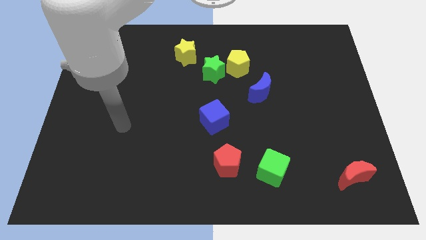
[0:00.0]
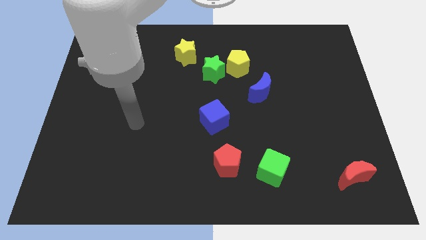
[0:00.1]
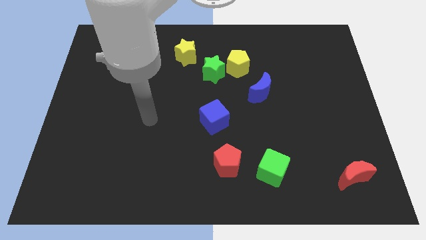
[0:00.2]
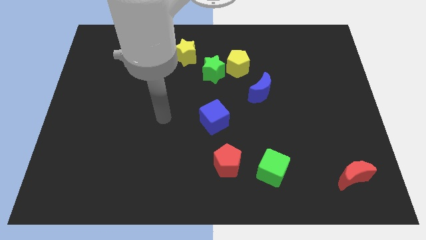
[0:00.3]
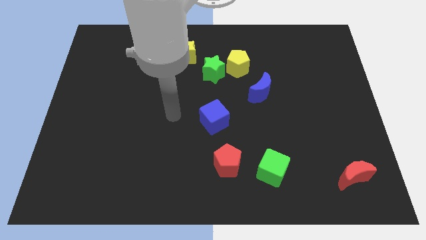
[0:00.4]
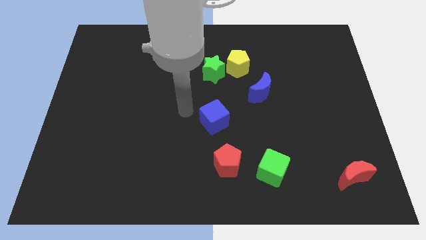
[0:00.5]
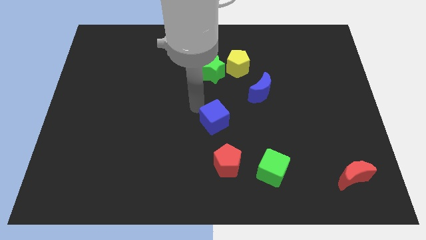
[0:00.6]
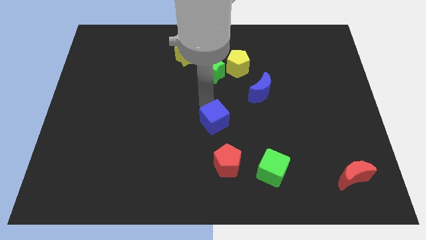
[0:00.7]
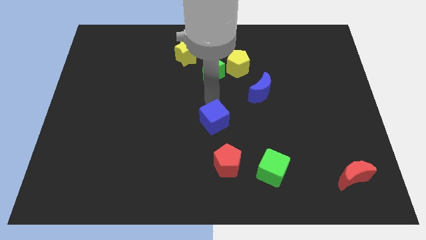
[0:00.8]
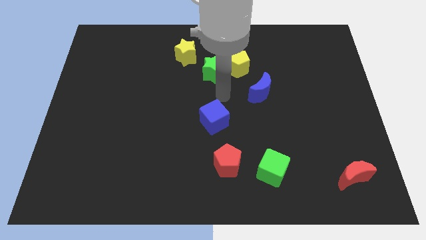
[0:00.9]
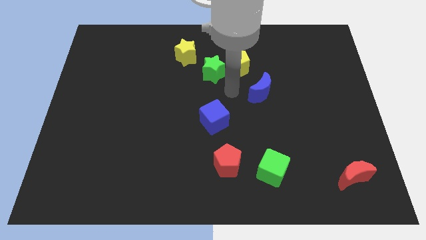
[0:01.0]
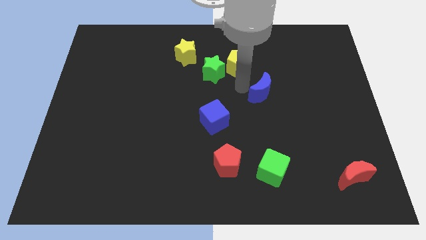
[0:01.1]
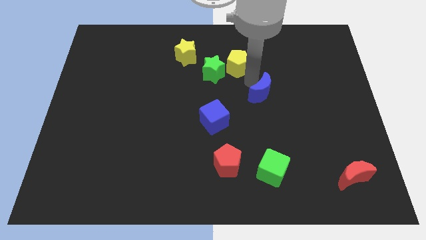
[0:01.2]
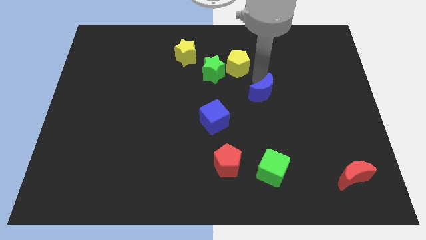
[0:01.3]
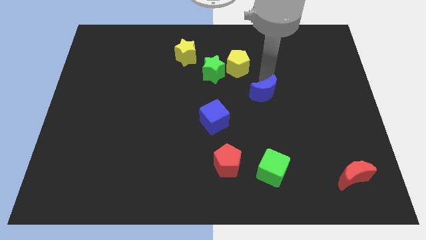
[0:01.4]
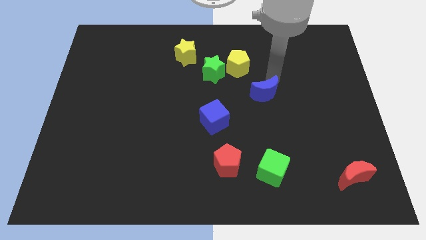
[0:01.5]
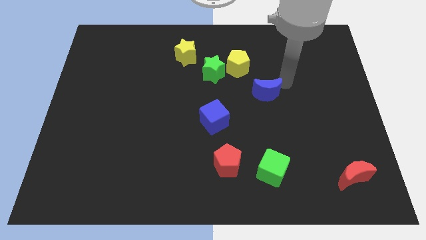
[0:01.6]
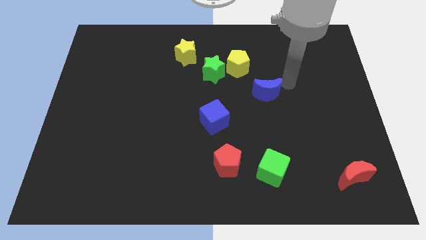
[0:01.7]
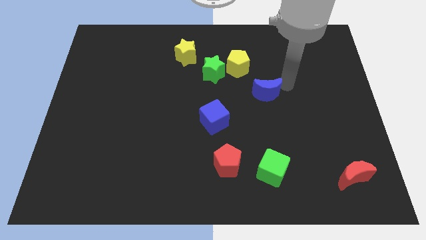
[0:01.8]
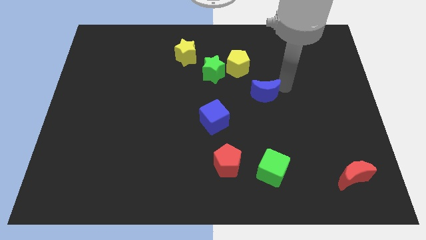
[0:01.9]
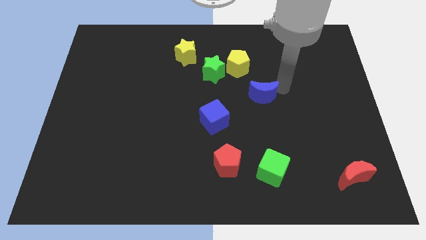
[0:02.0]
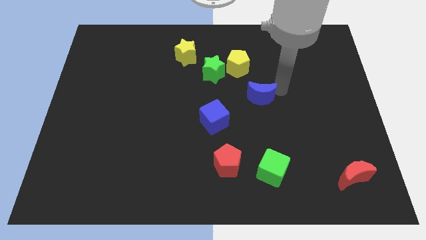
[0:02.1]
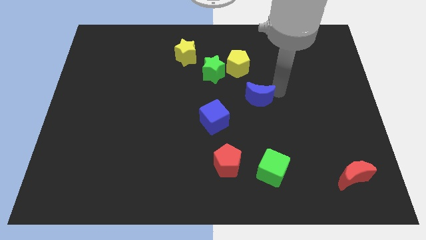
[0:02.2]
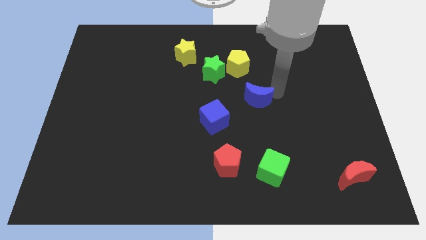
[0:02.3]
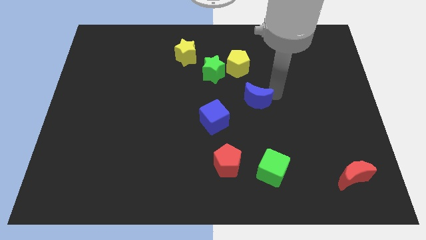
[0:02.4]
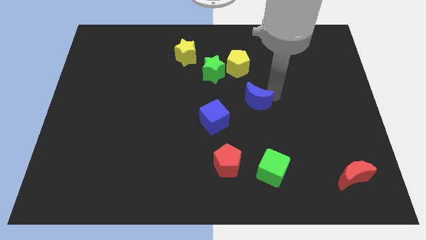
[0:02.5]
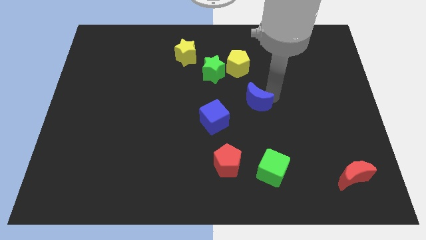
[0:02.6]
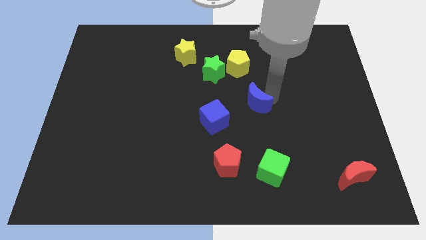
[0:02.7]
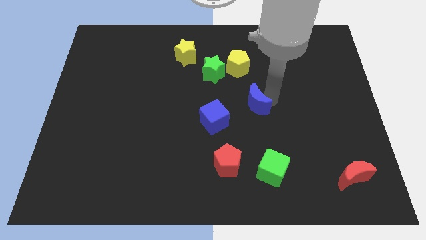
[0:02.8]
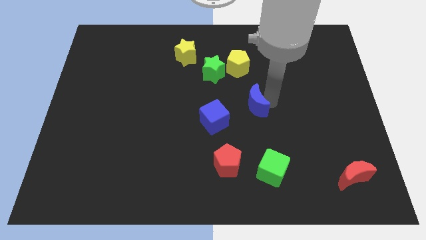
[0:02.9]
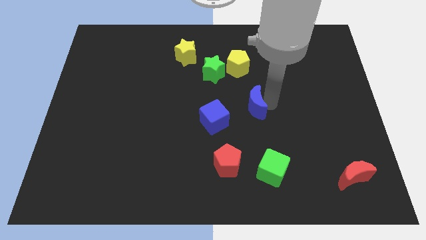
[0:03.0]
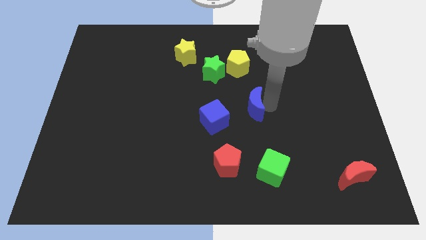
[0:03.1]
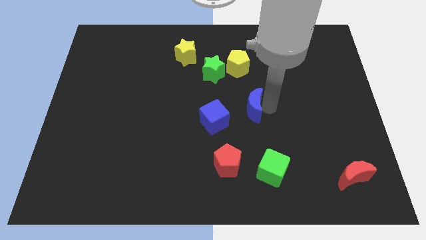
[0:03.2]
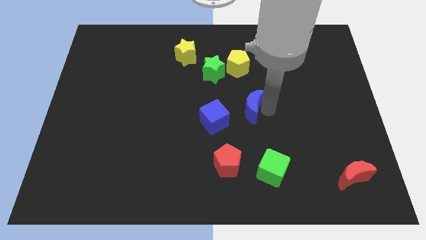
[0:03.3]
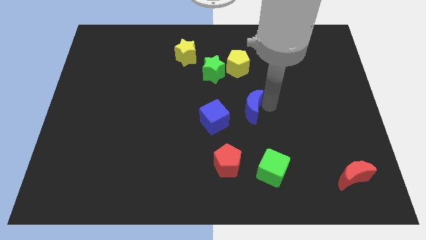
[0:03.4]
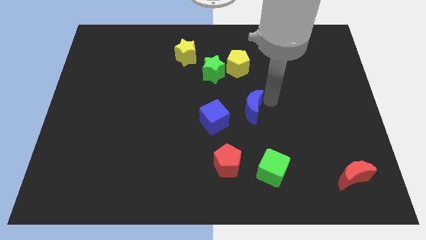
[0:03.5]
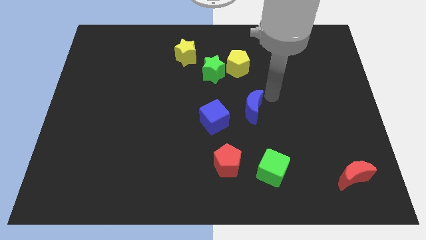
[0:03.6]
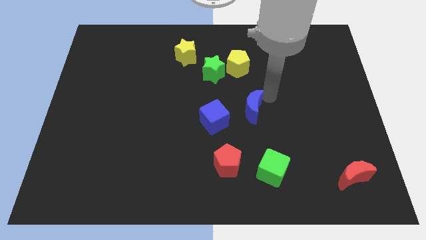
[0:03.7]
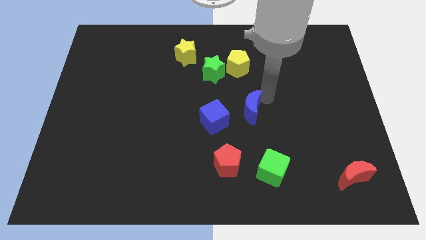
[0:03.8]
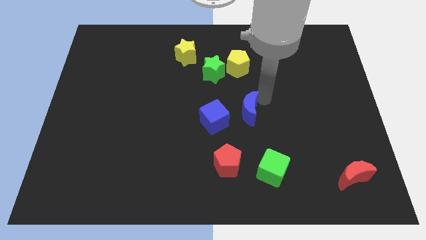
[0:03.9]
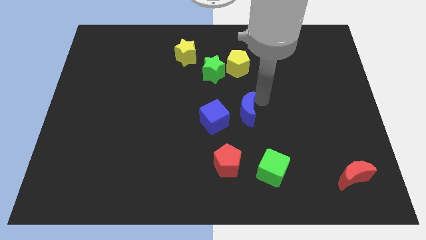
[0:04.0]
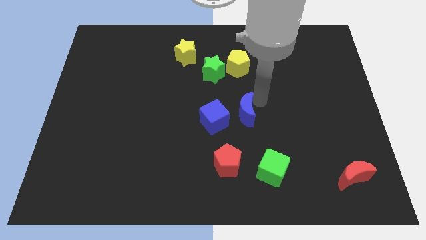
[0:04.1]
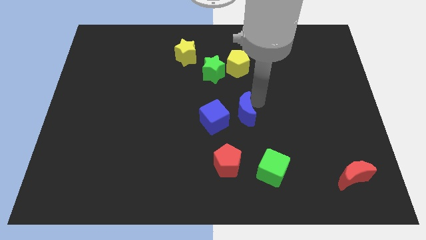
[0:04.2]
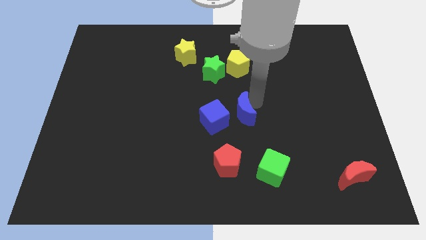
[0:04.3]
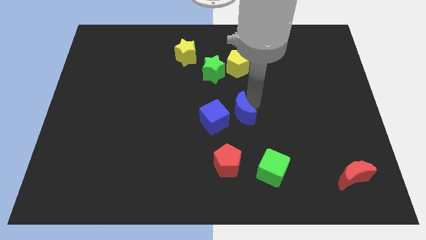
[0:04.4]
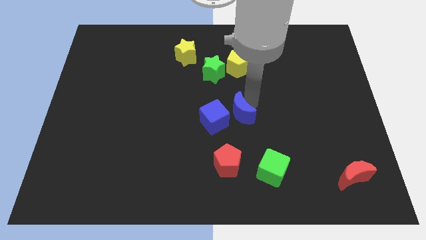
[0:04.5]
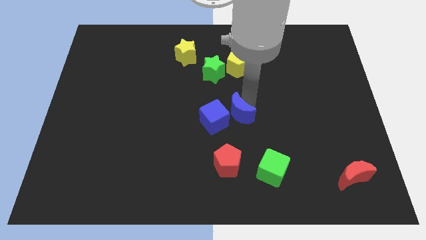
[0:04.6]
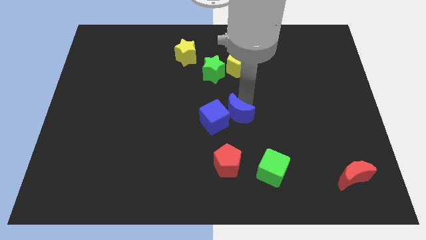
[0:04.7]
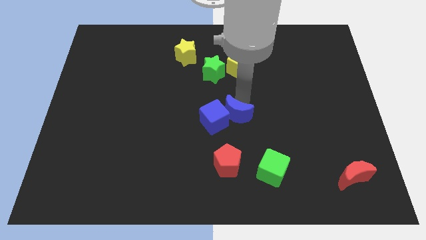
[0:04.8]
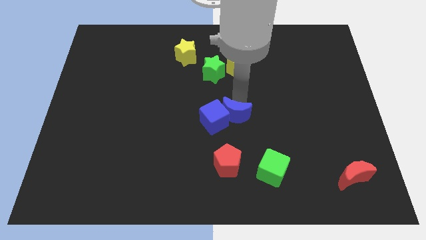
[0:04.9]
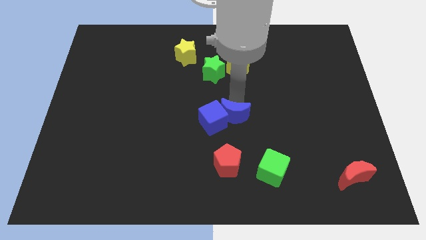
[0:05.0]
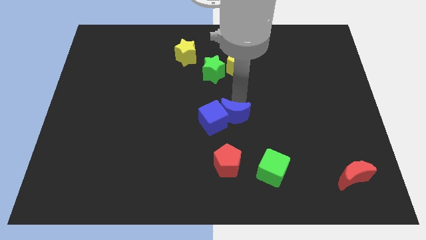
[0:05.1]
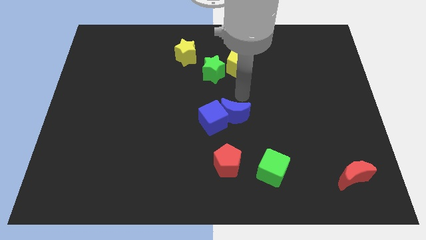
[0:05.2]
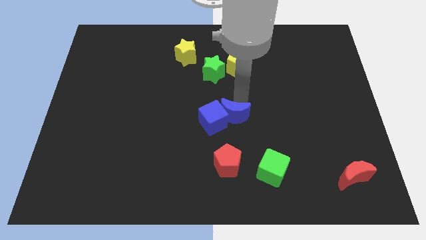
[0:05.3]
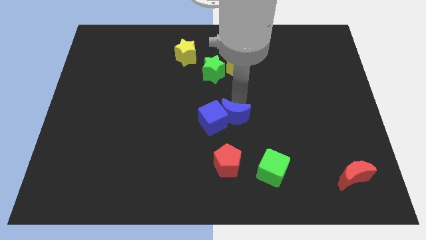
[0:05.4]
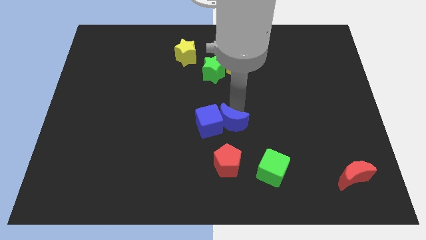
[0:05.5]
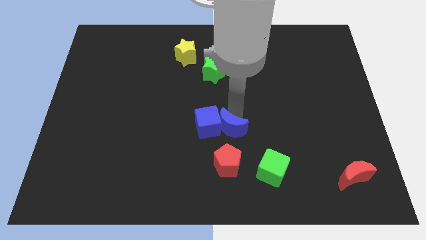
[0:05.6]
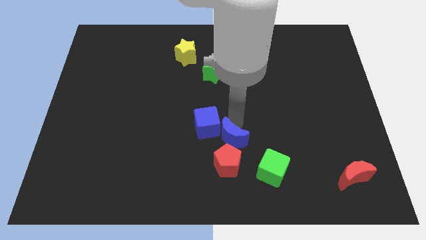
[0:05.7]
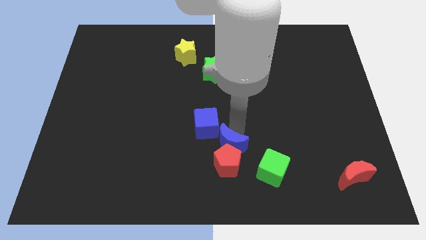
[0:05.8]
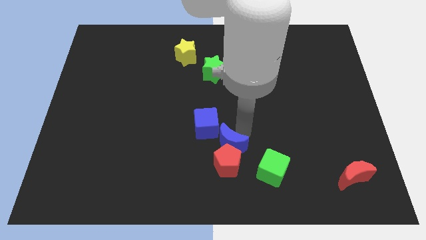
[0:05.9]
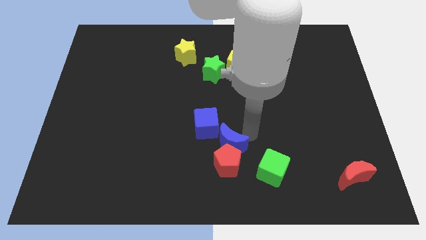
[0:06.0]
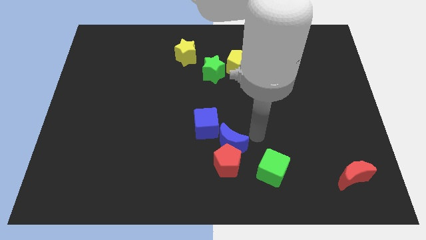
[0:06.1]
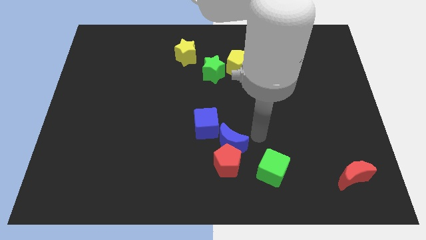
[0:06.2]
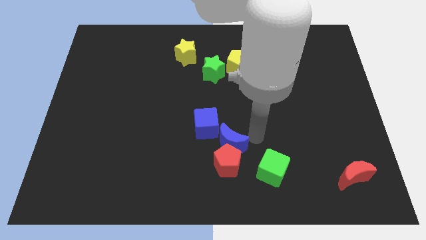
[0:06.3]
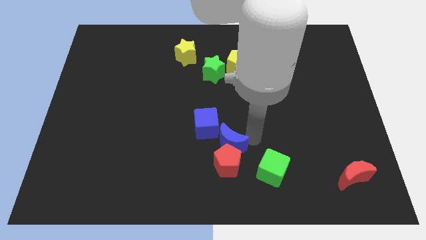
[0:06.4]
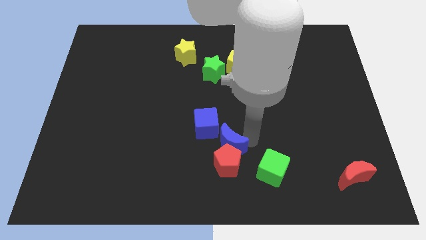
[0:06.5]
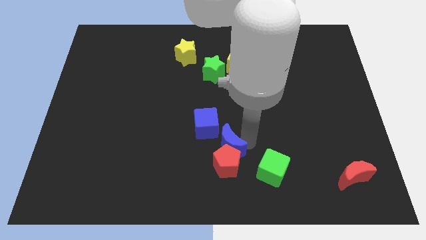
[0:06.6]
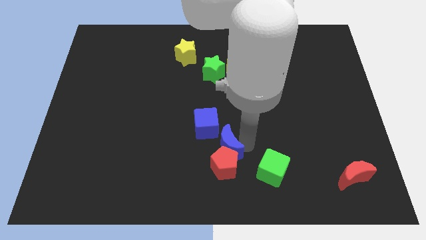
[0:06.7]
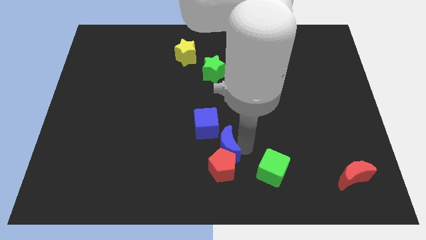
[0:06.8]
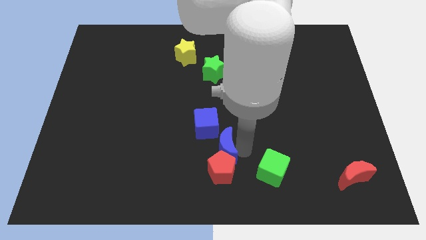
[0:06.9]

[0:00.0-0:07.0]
put the blue moon left of the green cube

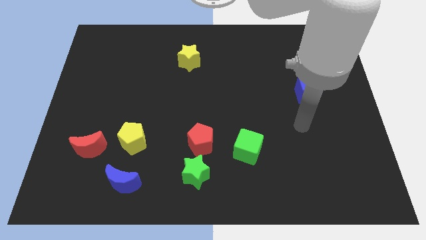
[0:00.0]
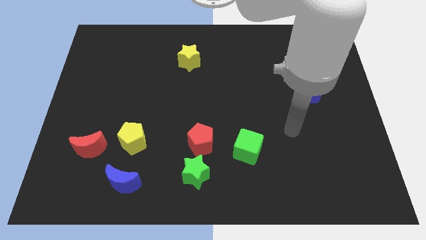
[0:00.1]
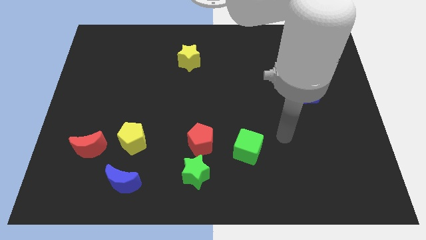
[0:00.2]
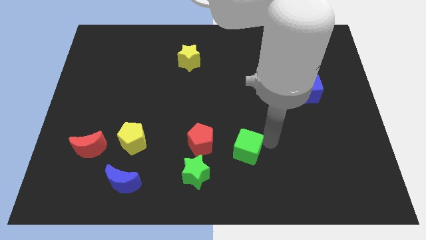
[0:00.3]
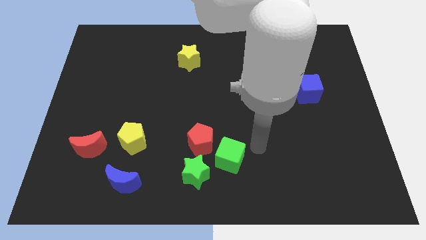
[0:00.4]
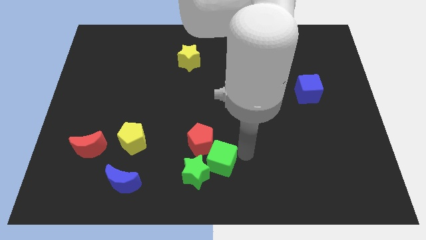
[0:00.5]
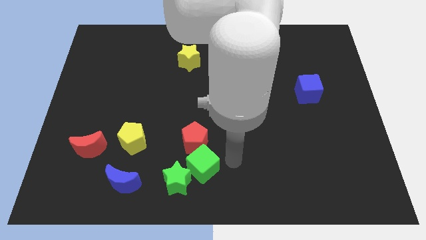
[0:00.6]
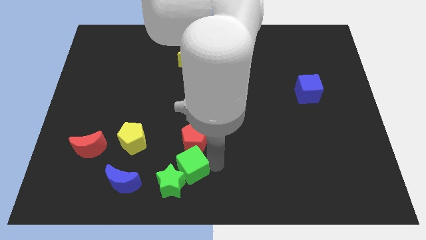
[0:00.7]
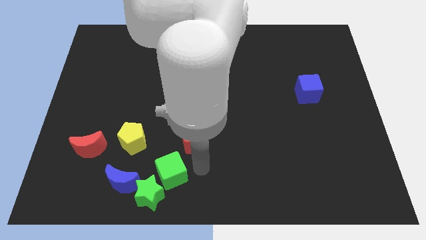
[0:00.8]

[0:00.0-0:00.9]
push the green star to the bottom side of the yellow pentagon
